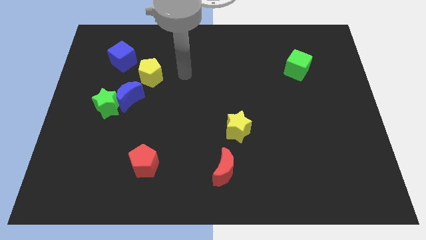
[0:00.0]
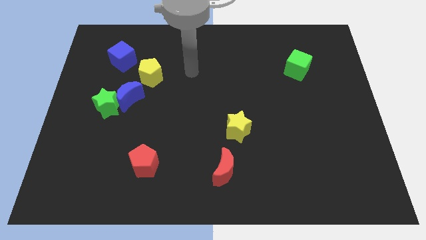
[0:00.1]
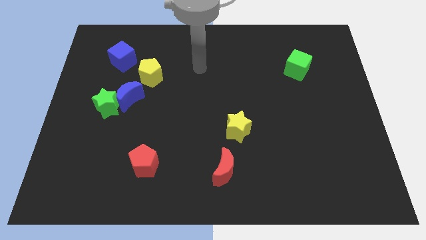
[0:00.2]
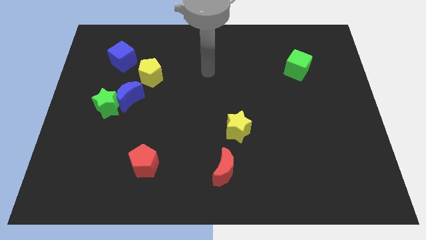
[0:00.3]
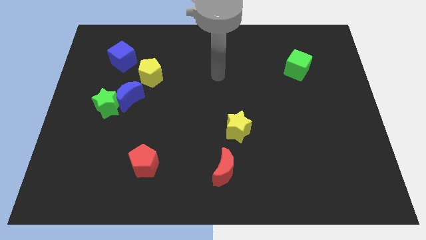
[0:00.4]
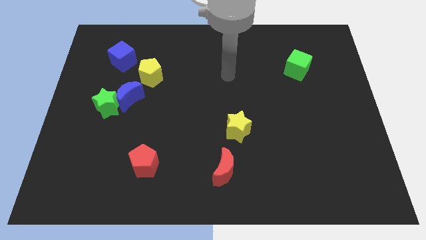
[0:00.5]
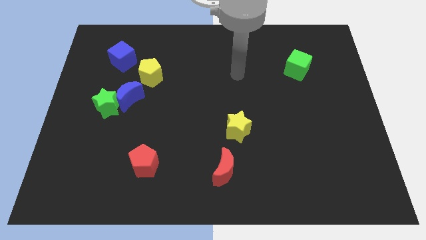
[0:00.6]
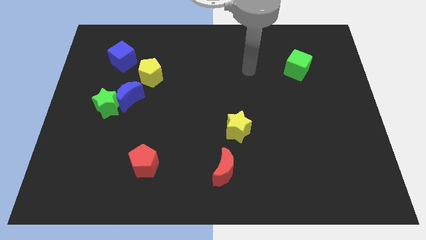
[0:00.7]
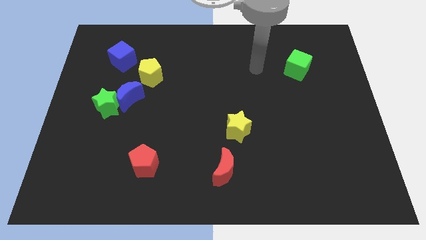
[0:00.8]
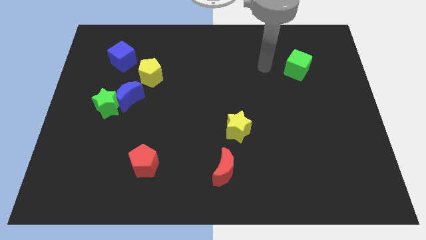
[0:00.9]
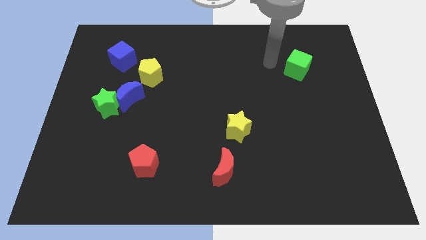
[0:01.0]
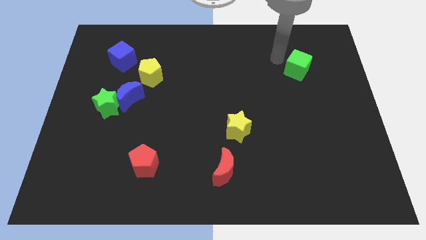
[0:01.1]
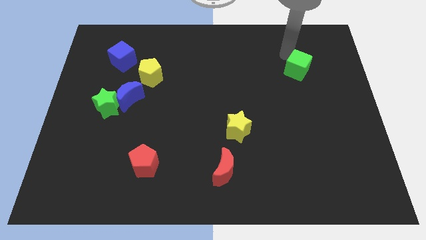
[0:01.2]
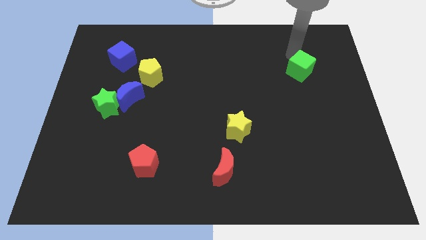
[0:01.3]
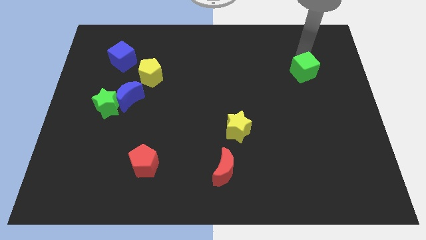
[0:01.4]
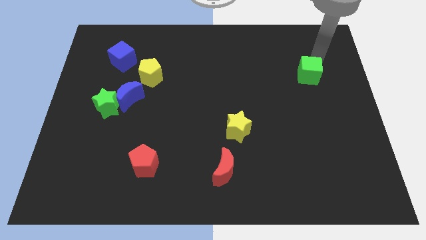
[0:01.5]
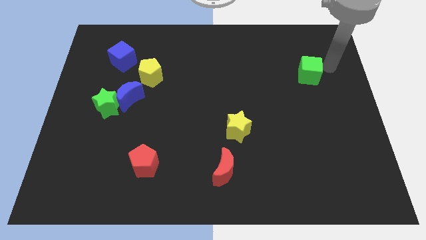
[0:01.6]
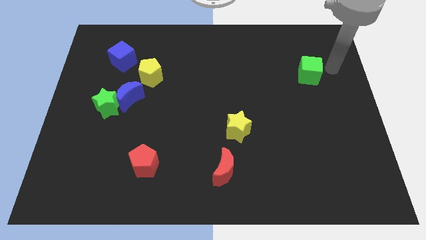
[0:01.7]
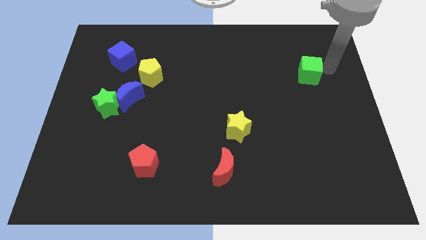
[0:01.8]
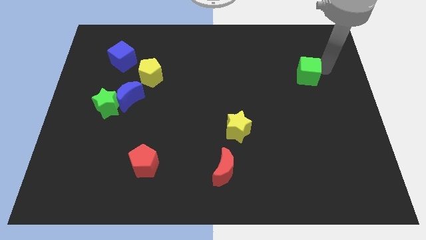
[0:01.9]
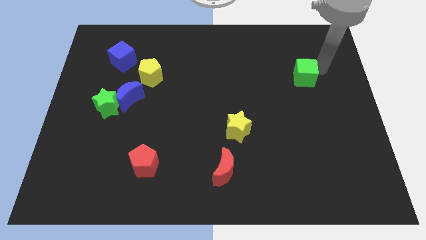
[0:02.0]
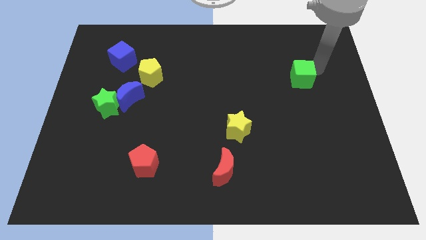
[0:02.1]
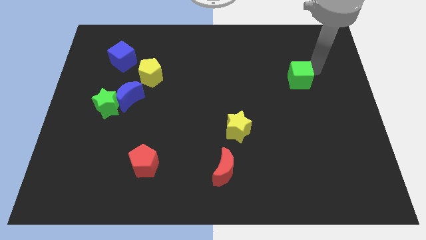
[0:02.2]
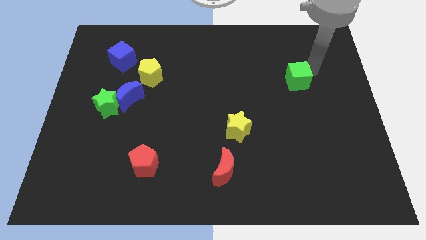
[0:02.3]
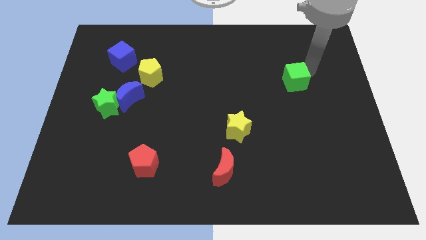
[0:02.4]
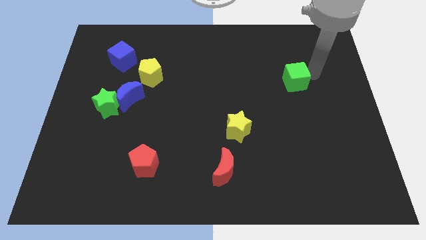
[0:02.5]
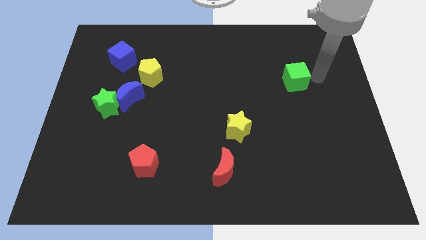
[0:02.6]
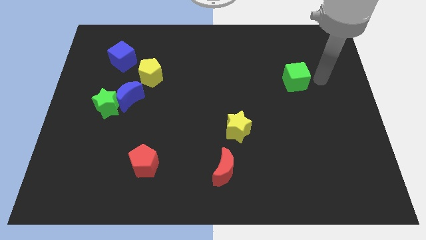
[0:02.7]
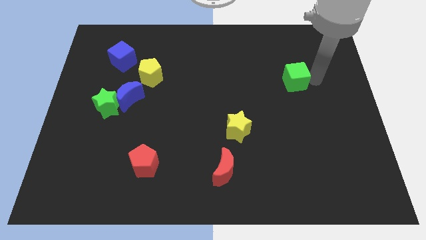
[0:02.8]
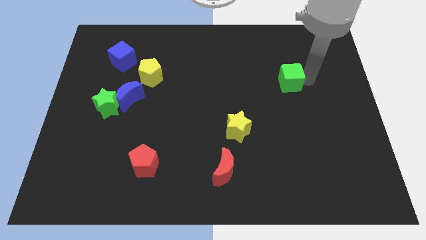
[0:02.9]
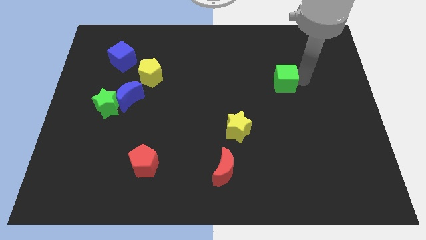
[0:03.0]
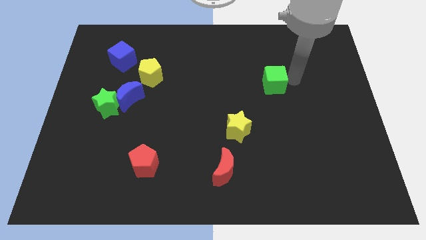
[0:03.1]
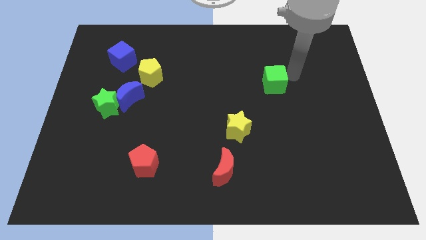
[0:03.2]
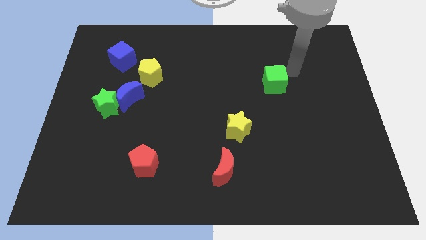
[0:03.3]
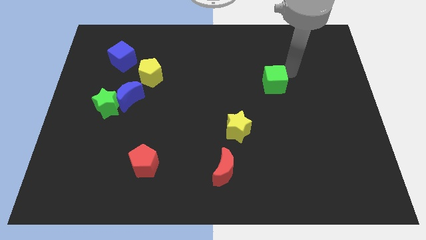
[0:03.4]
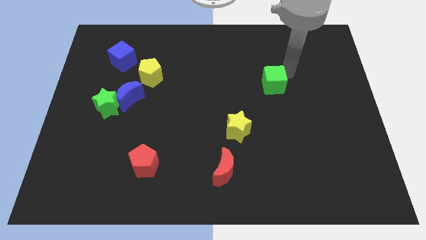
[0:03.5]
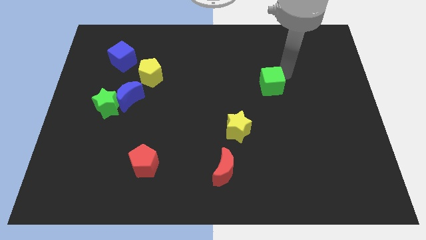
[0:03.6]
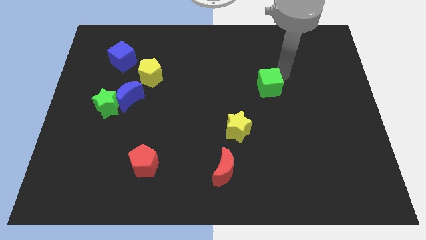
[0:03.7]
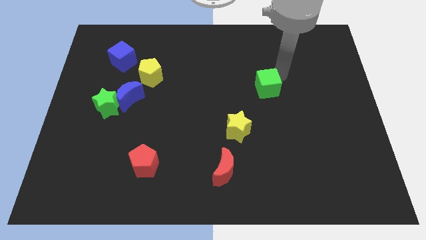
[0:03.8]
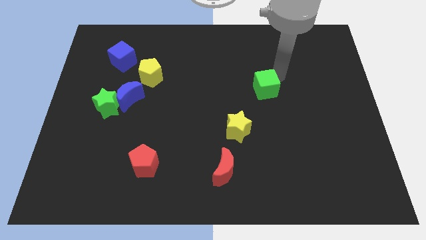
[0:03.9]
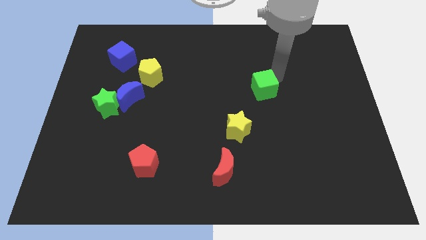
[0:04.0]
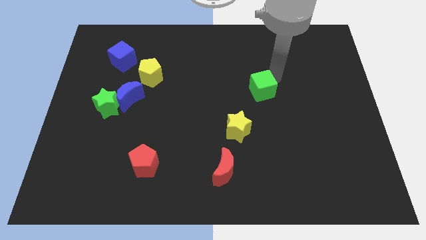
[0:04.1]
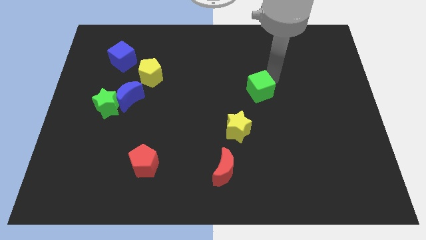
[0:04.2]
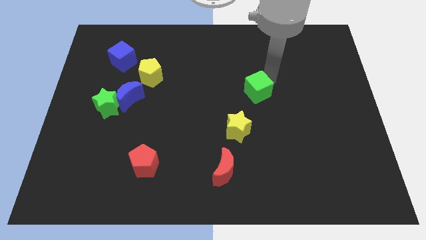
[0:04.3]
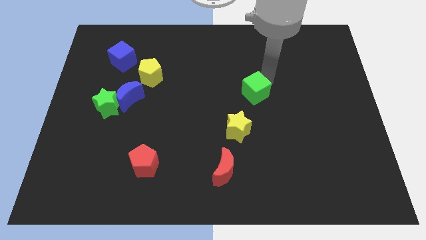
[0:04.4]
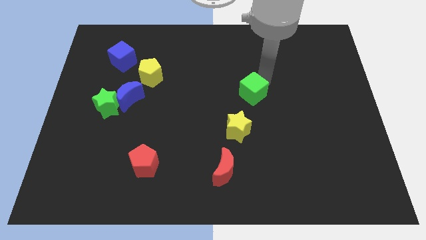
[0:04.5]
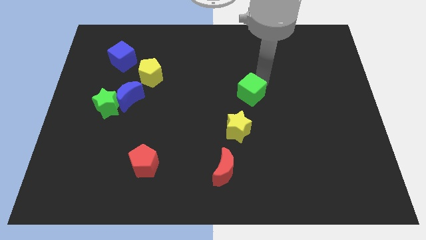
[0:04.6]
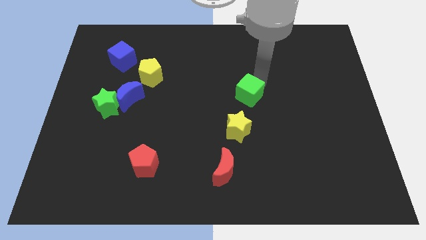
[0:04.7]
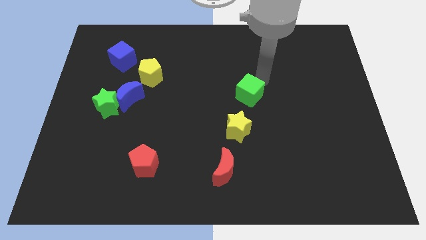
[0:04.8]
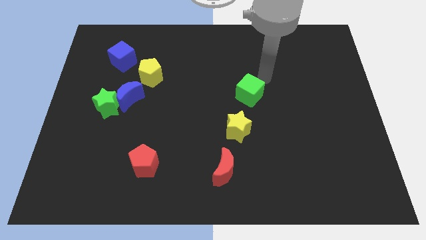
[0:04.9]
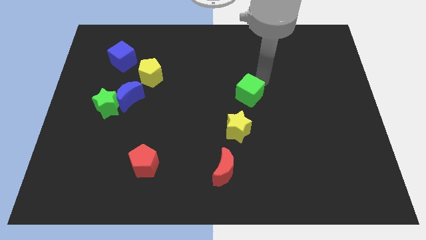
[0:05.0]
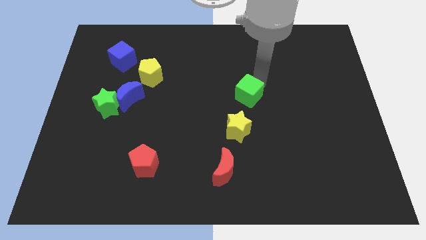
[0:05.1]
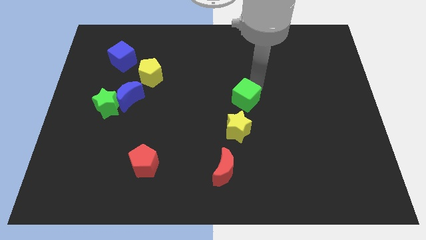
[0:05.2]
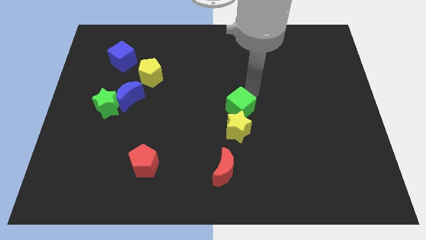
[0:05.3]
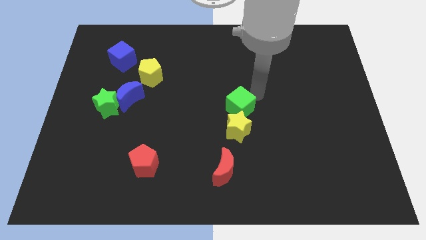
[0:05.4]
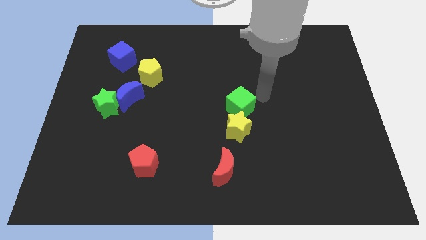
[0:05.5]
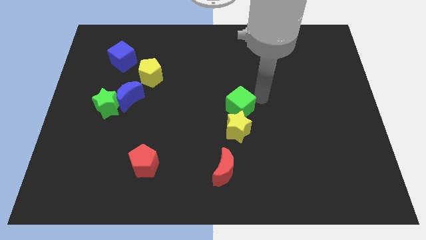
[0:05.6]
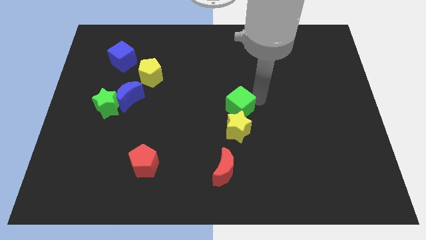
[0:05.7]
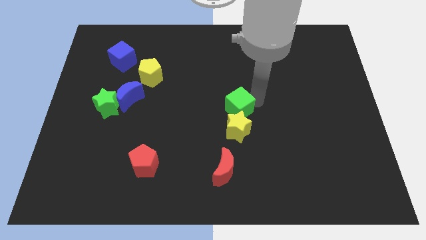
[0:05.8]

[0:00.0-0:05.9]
move the green cube down and then to the left

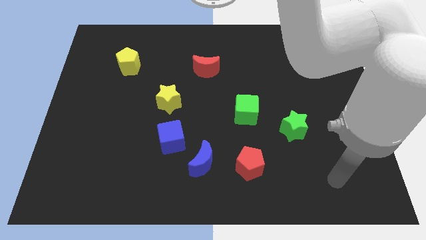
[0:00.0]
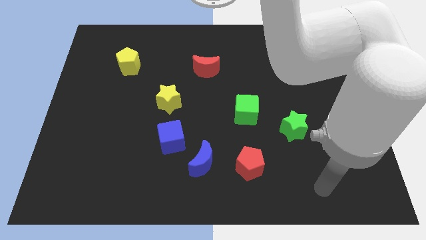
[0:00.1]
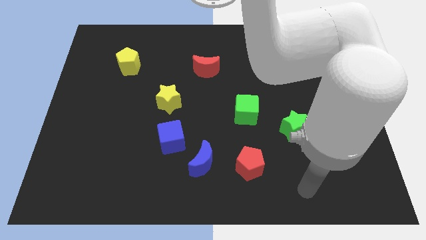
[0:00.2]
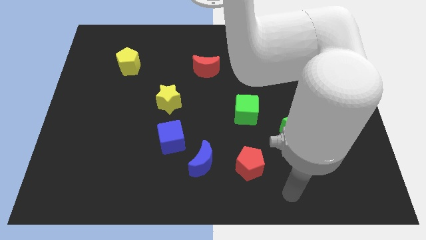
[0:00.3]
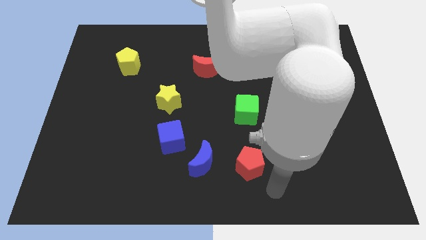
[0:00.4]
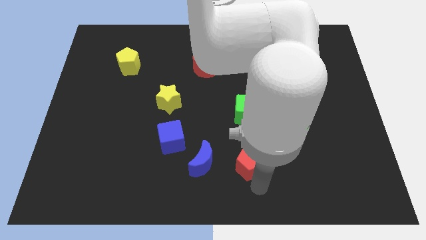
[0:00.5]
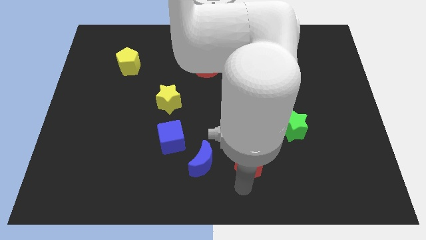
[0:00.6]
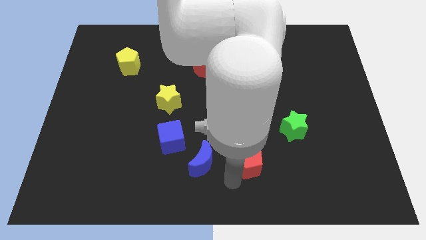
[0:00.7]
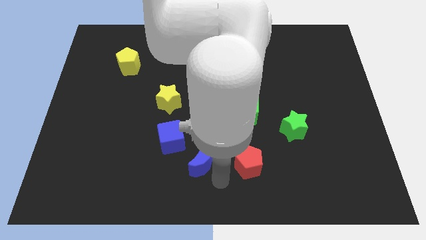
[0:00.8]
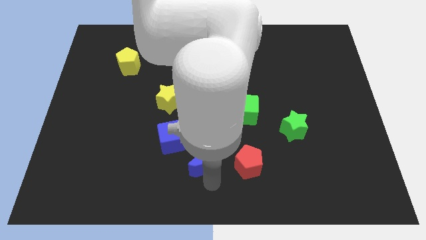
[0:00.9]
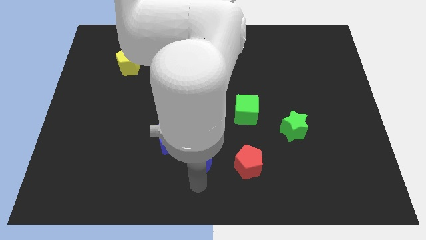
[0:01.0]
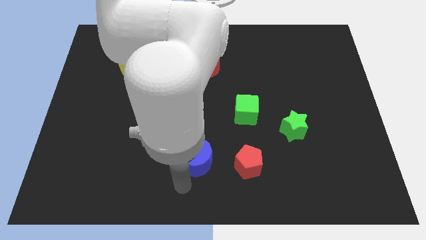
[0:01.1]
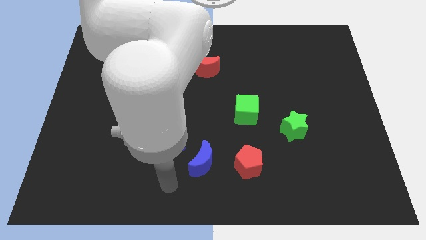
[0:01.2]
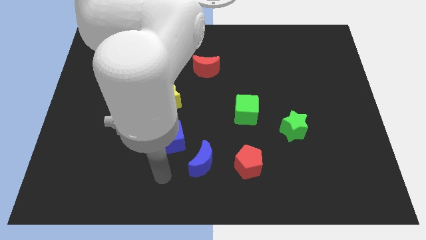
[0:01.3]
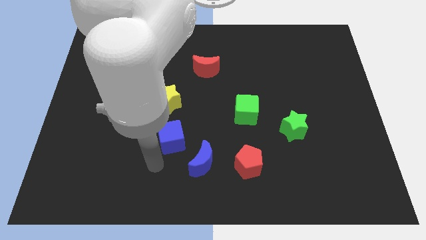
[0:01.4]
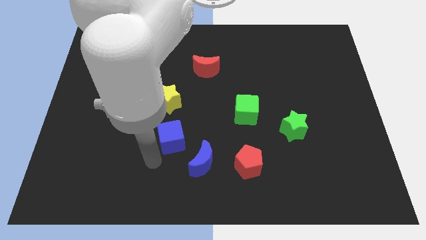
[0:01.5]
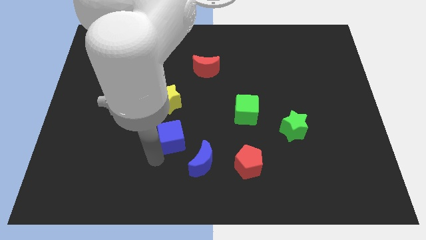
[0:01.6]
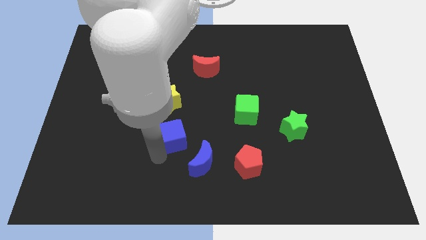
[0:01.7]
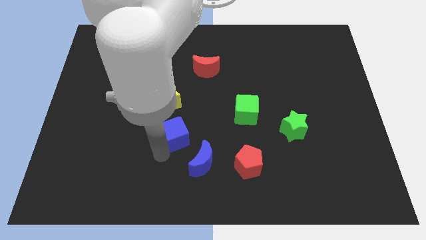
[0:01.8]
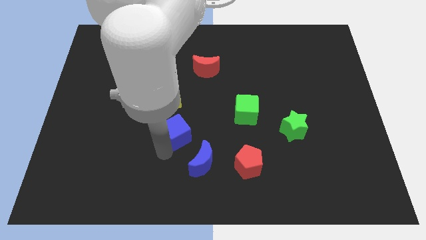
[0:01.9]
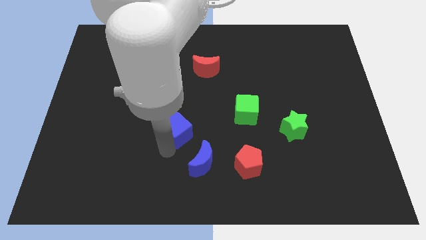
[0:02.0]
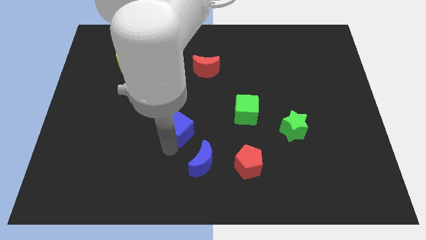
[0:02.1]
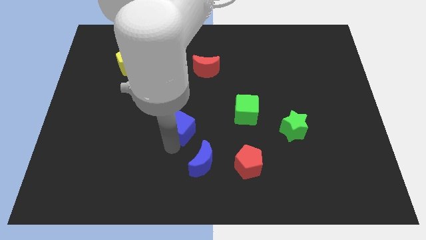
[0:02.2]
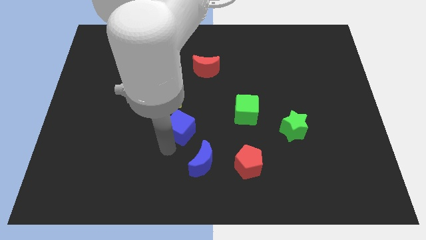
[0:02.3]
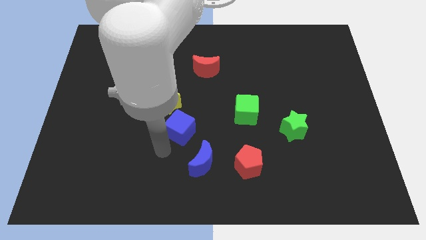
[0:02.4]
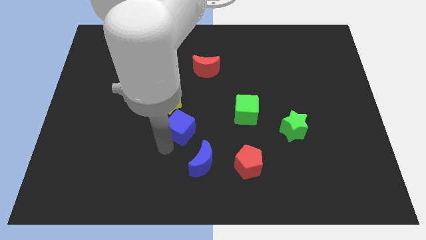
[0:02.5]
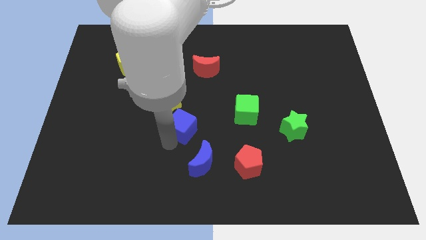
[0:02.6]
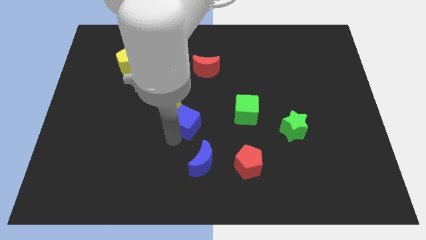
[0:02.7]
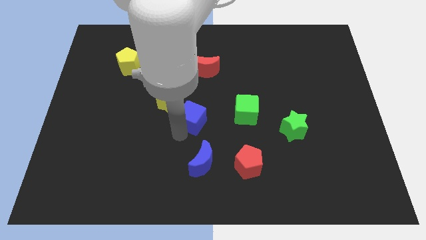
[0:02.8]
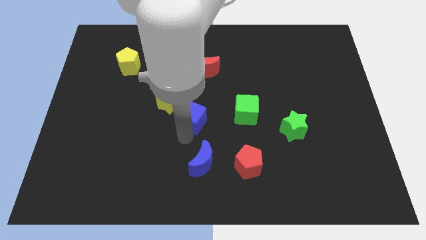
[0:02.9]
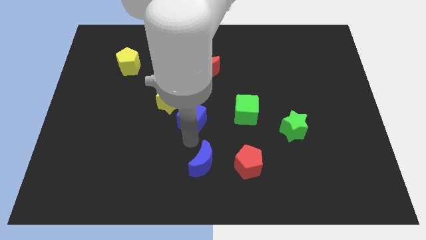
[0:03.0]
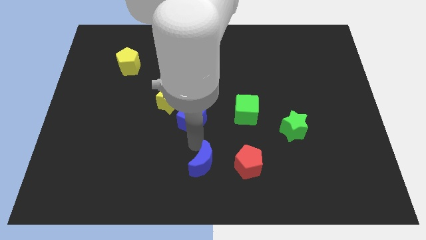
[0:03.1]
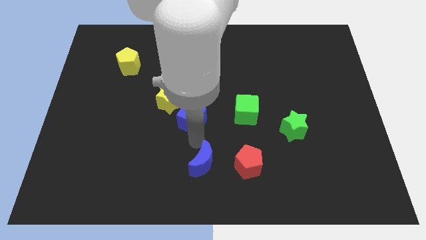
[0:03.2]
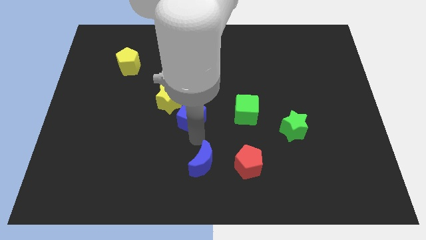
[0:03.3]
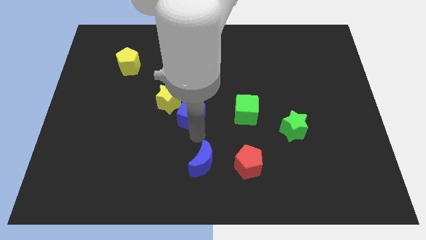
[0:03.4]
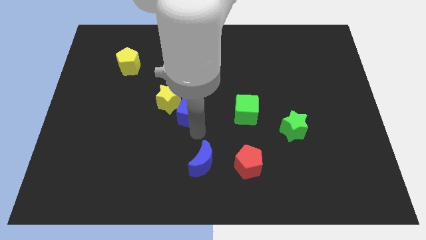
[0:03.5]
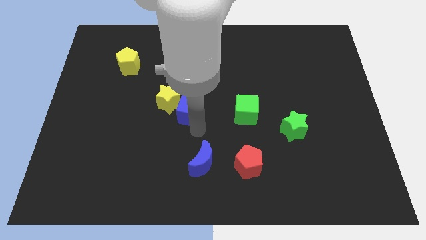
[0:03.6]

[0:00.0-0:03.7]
slightly slide the blue cube upwards
